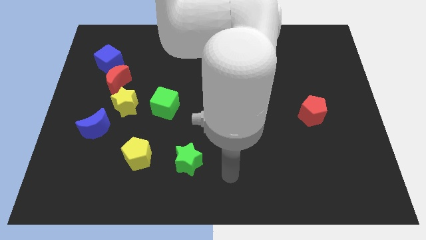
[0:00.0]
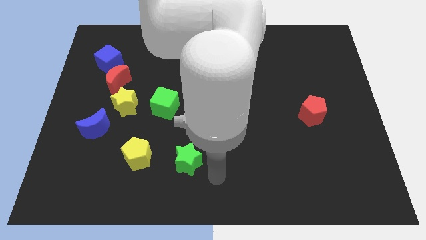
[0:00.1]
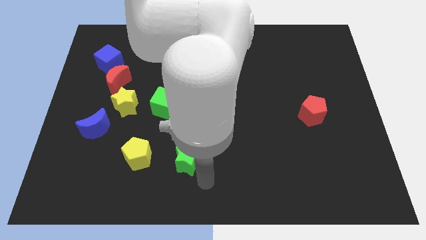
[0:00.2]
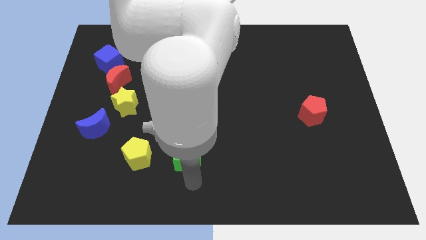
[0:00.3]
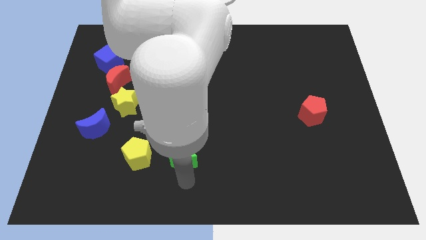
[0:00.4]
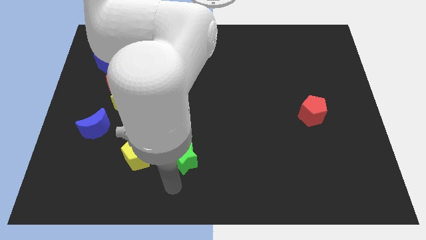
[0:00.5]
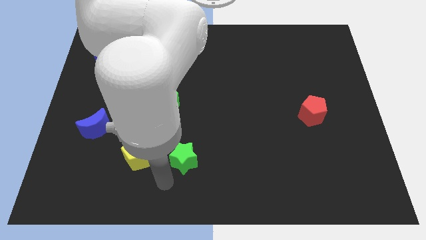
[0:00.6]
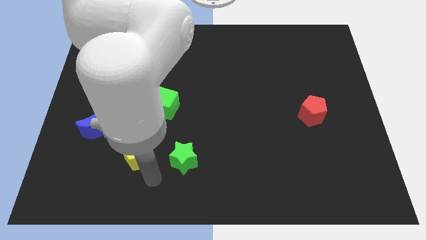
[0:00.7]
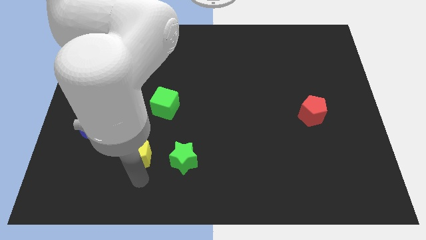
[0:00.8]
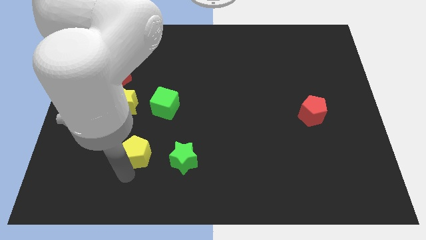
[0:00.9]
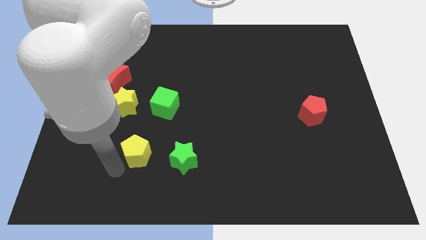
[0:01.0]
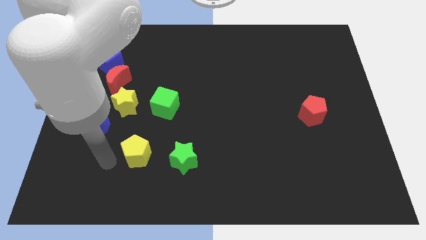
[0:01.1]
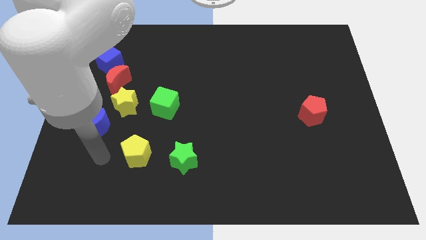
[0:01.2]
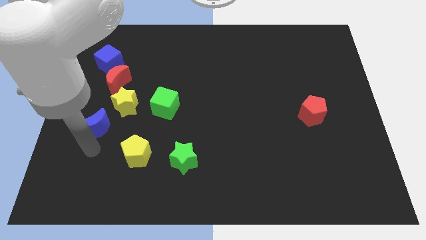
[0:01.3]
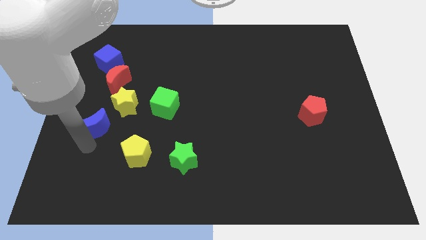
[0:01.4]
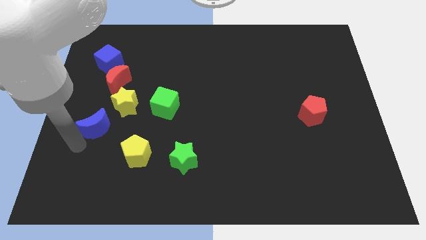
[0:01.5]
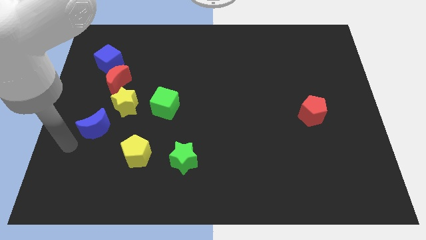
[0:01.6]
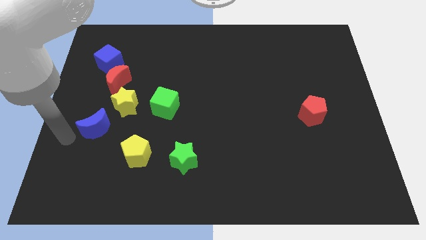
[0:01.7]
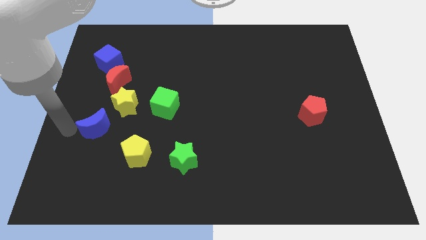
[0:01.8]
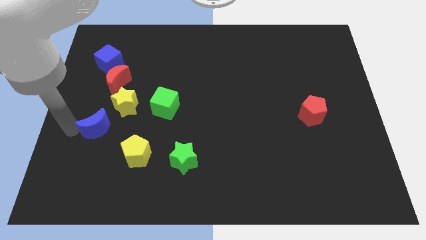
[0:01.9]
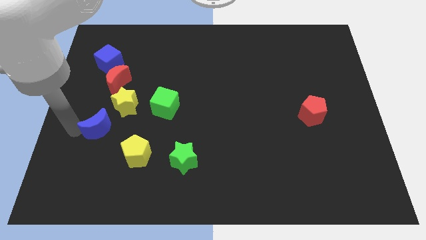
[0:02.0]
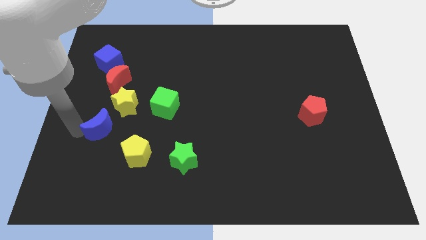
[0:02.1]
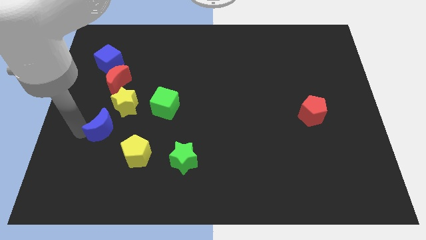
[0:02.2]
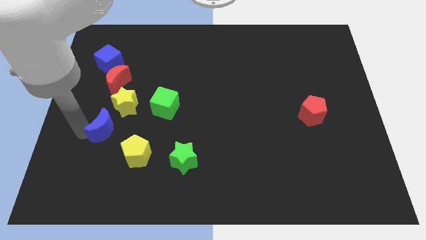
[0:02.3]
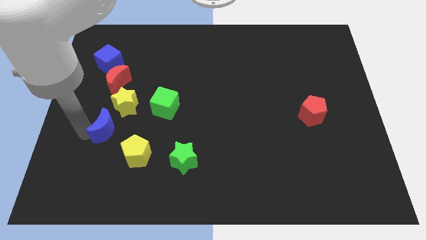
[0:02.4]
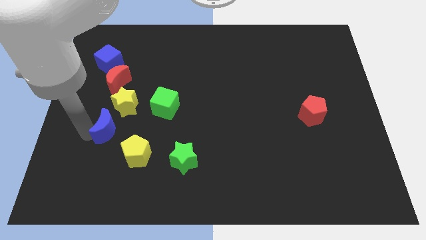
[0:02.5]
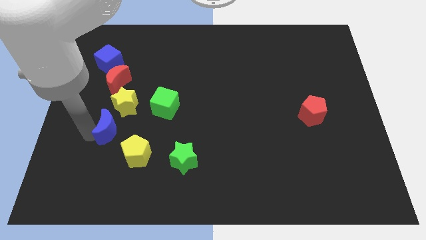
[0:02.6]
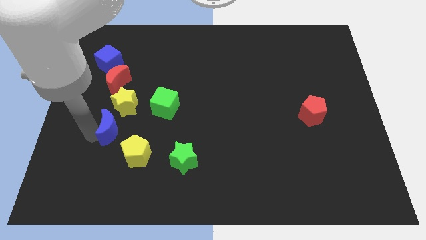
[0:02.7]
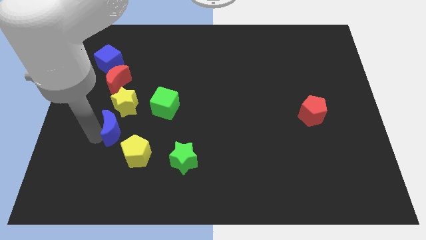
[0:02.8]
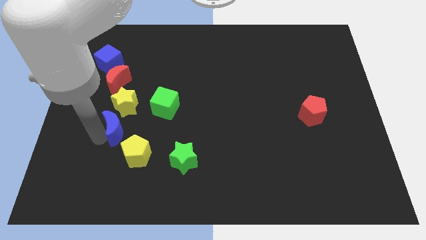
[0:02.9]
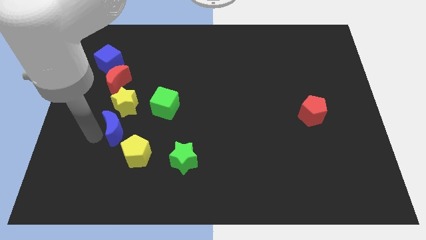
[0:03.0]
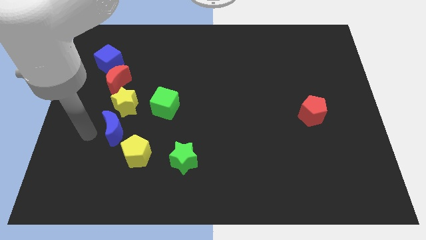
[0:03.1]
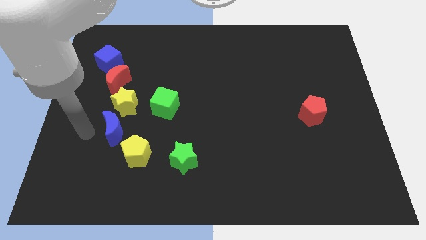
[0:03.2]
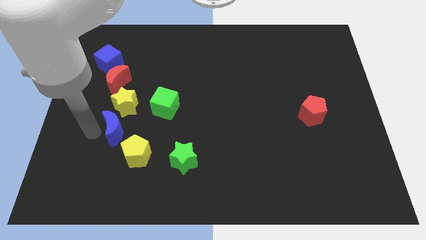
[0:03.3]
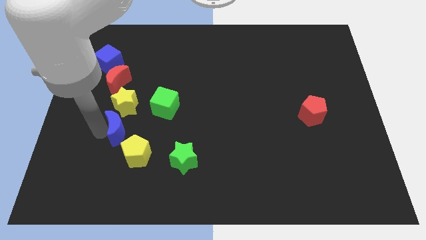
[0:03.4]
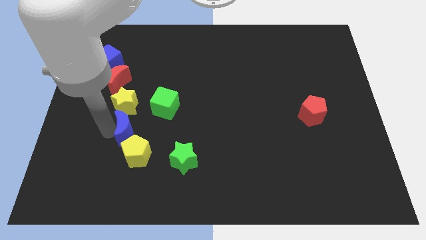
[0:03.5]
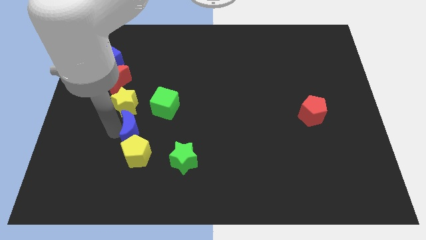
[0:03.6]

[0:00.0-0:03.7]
slightly slide the blue moon to the right

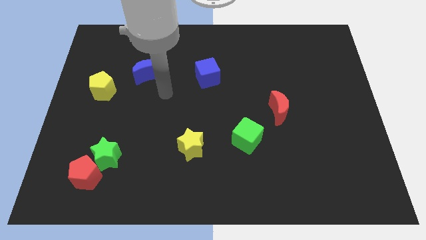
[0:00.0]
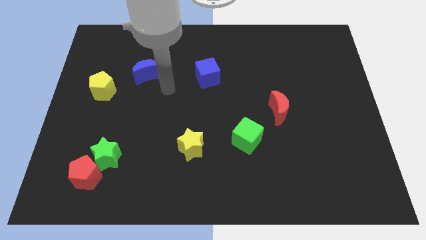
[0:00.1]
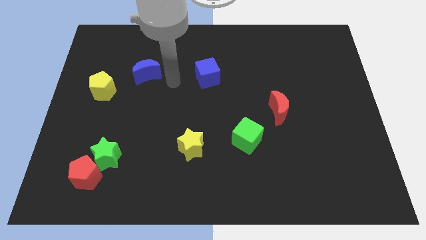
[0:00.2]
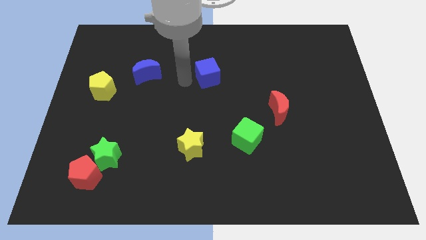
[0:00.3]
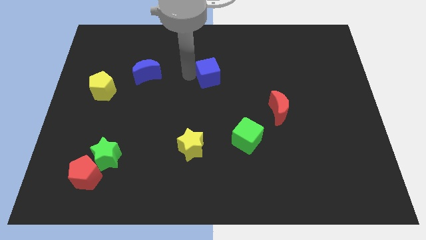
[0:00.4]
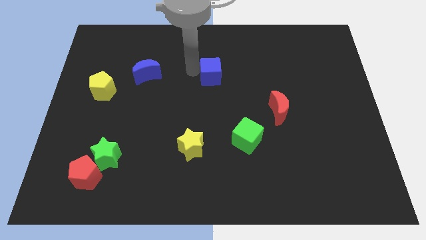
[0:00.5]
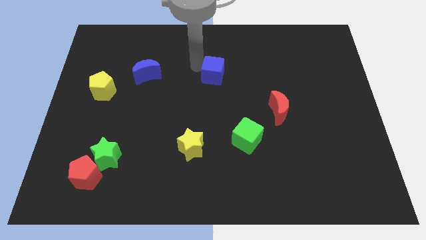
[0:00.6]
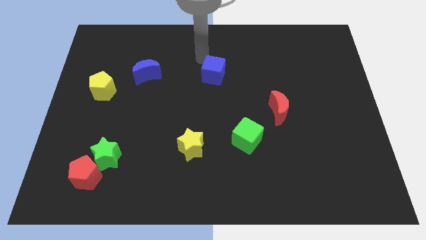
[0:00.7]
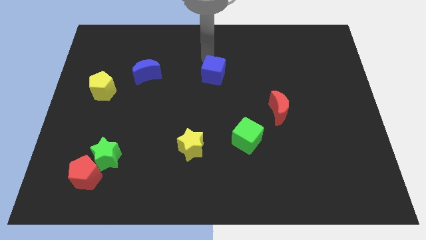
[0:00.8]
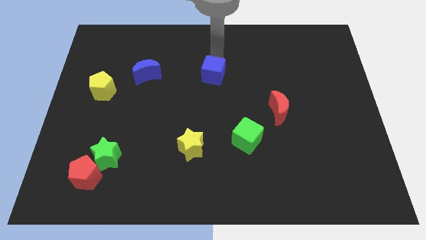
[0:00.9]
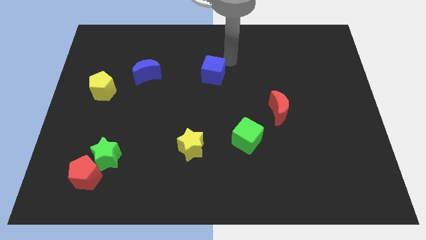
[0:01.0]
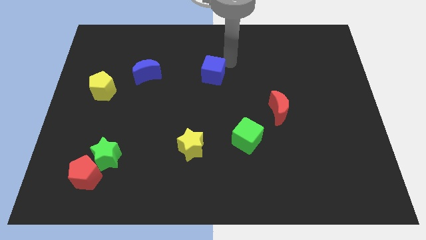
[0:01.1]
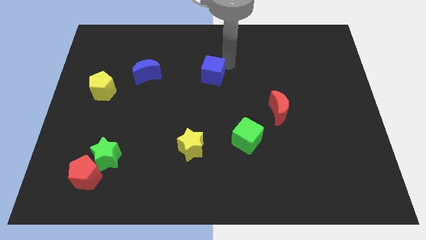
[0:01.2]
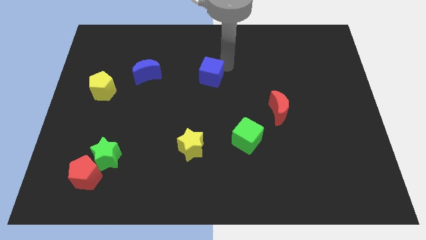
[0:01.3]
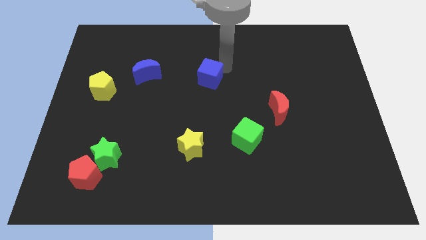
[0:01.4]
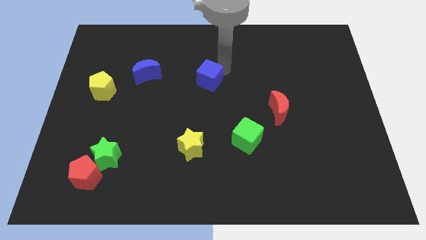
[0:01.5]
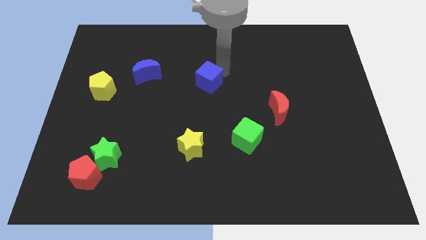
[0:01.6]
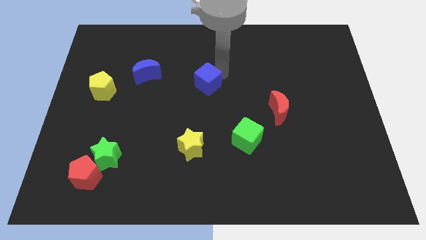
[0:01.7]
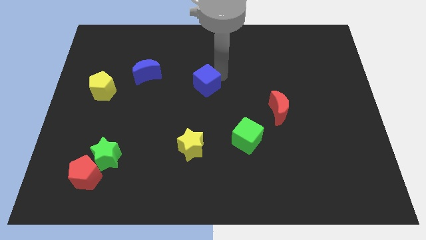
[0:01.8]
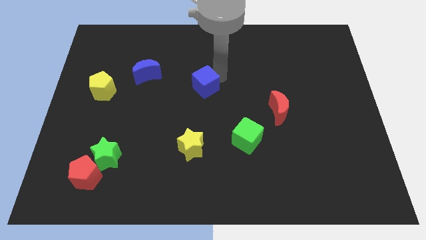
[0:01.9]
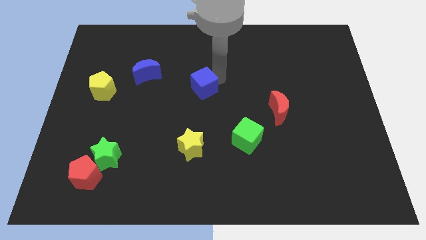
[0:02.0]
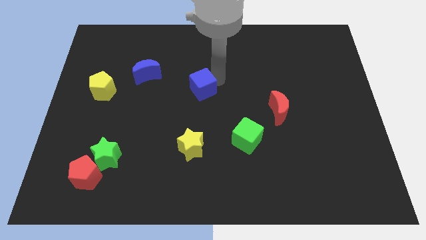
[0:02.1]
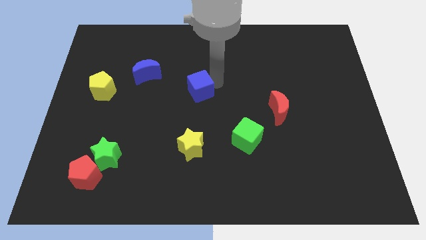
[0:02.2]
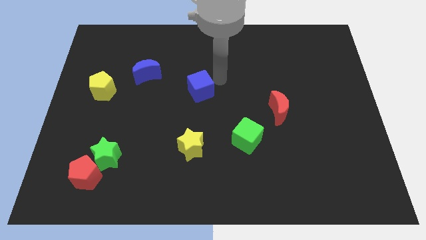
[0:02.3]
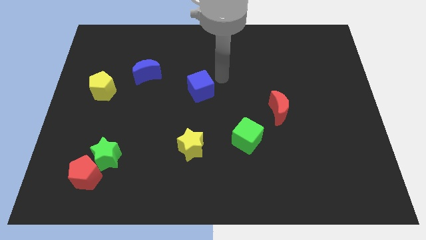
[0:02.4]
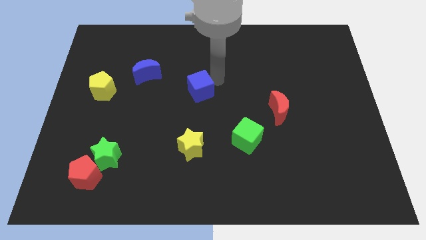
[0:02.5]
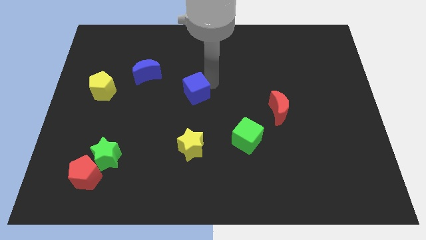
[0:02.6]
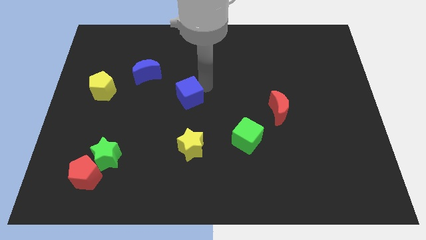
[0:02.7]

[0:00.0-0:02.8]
push the blue cube a little downwards and to the left diagonally

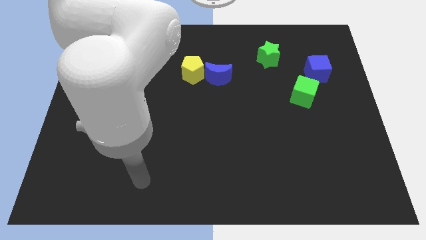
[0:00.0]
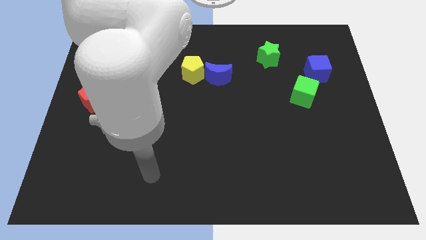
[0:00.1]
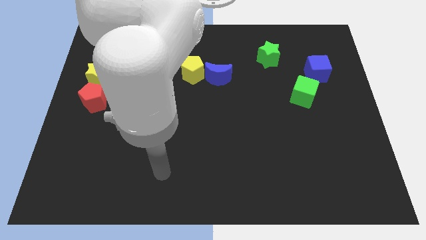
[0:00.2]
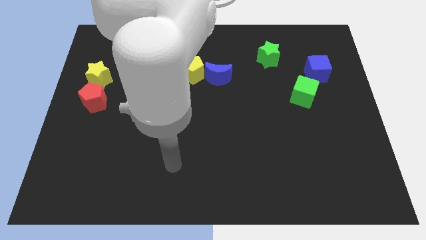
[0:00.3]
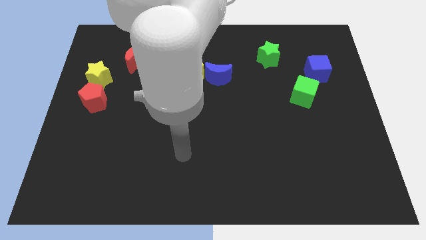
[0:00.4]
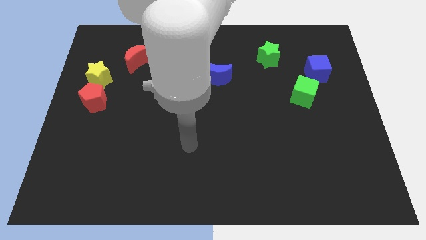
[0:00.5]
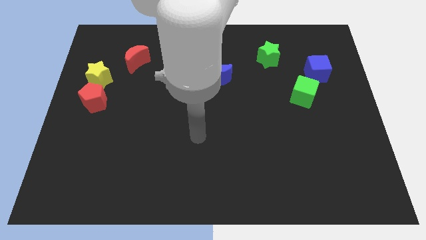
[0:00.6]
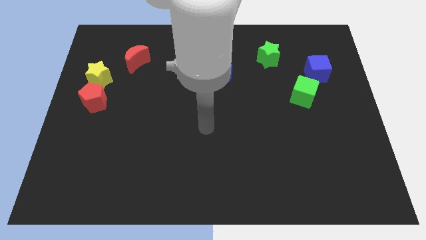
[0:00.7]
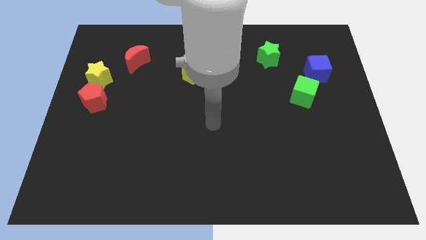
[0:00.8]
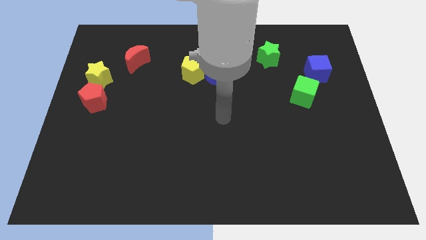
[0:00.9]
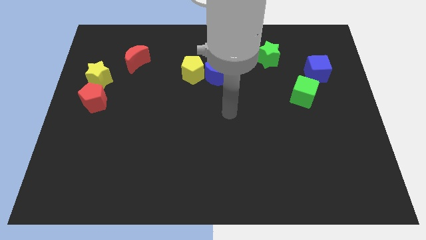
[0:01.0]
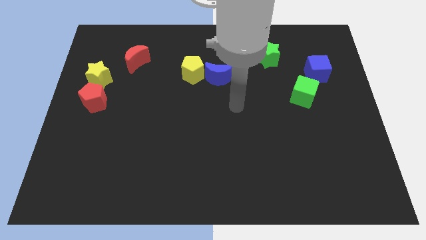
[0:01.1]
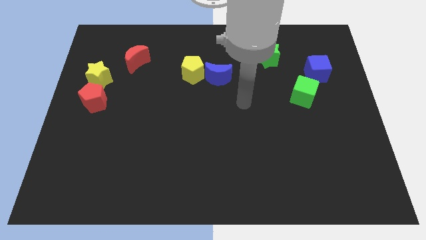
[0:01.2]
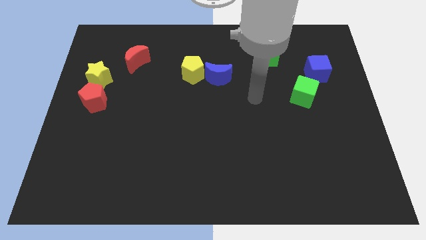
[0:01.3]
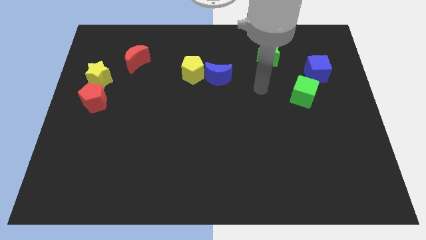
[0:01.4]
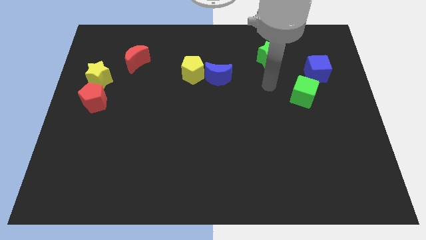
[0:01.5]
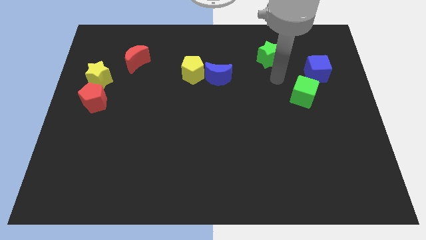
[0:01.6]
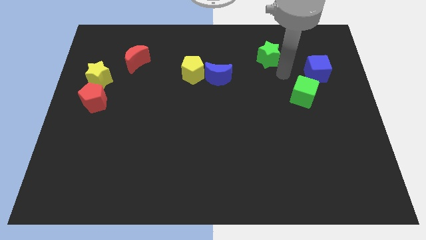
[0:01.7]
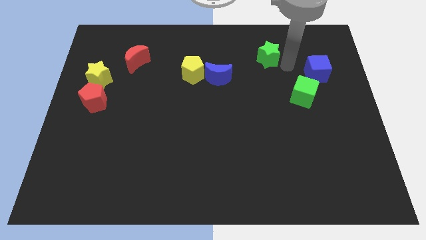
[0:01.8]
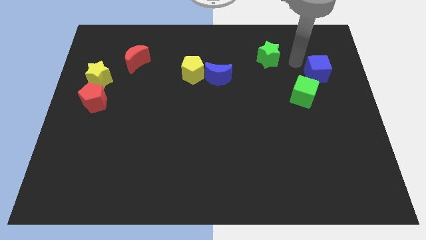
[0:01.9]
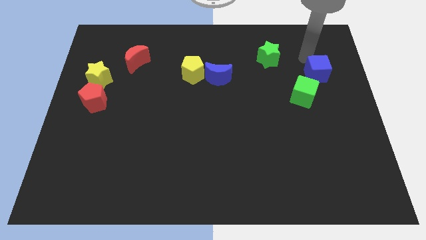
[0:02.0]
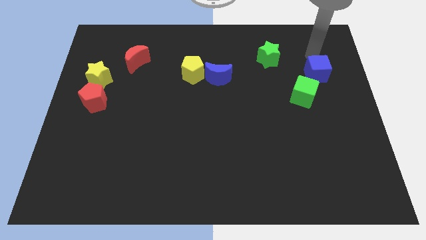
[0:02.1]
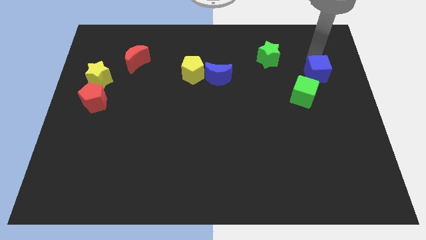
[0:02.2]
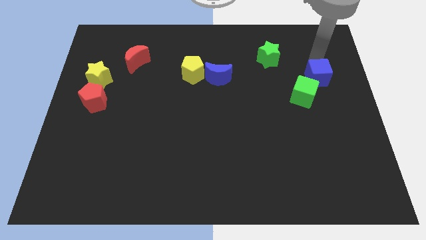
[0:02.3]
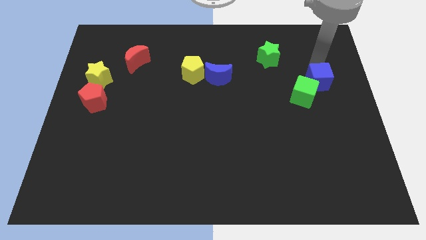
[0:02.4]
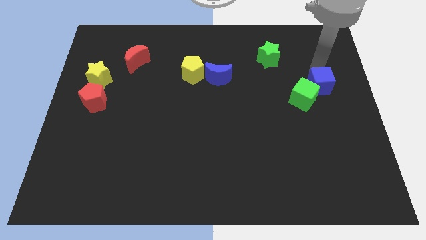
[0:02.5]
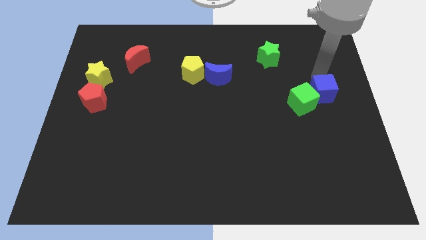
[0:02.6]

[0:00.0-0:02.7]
push the blue cube slightly downwards
